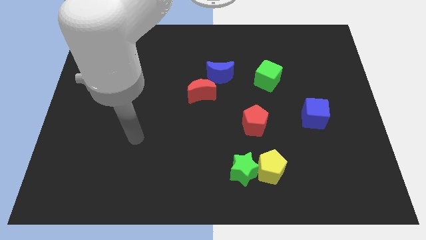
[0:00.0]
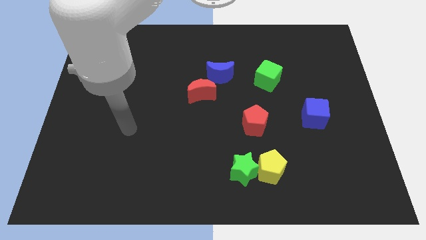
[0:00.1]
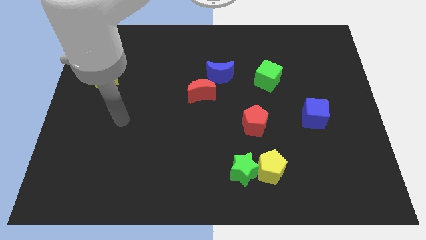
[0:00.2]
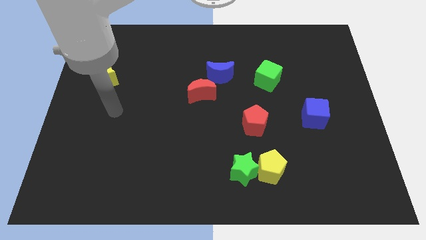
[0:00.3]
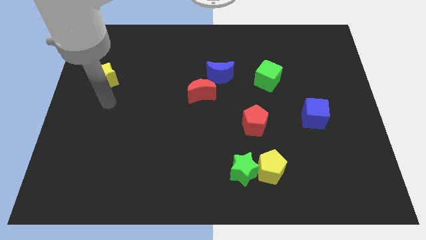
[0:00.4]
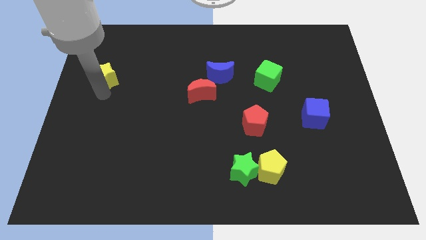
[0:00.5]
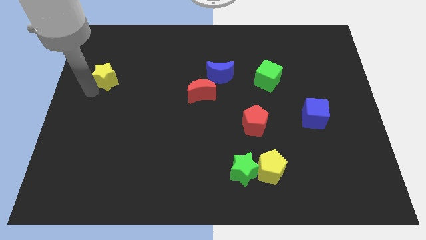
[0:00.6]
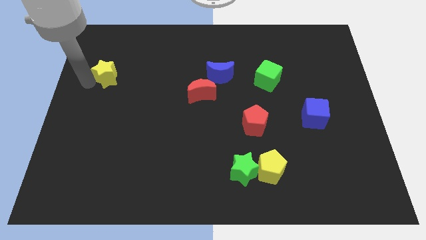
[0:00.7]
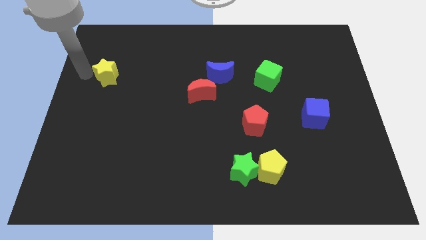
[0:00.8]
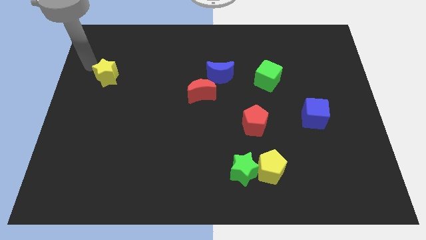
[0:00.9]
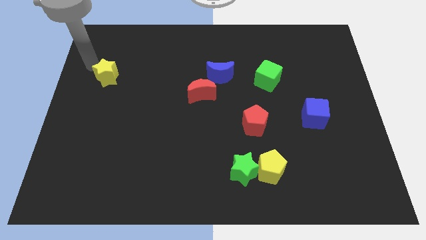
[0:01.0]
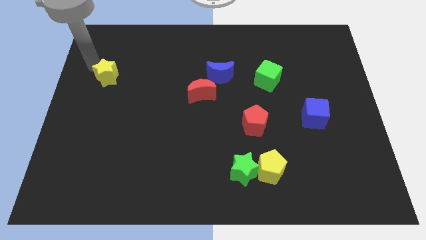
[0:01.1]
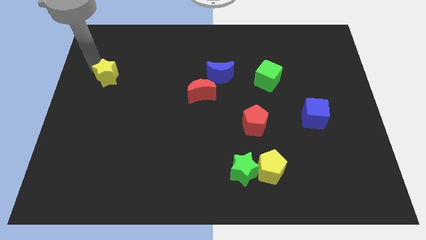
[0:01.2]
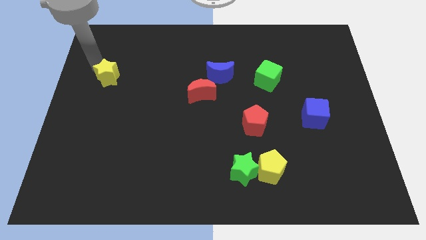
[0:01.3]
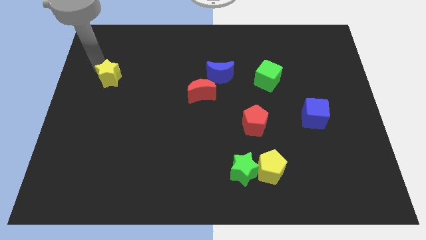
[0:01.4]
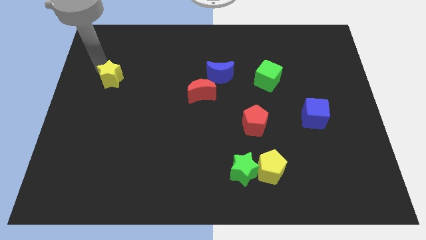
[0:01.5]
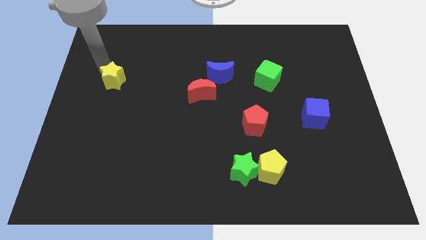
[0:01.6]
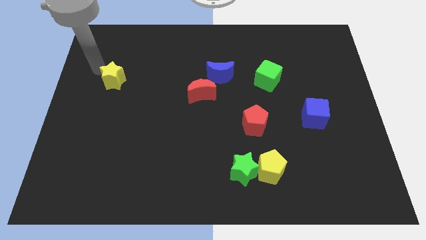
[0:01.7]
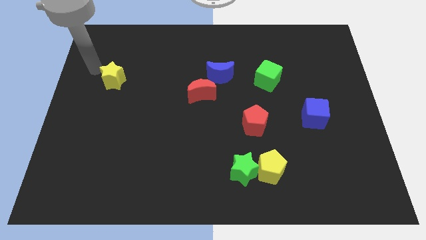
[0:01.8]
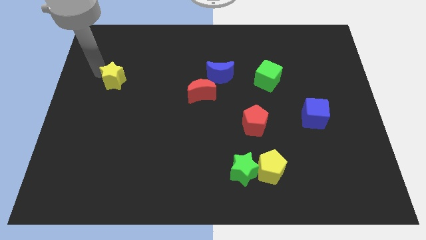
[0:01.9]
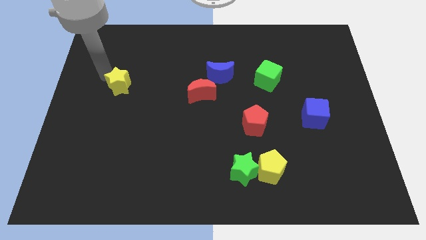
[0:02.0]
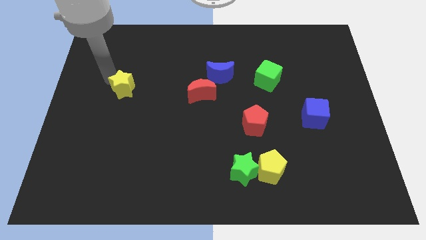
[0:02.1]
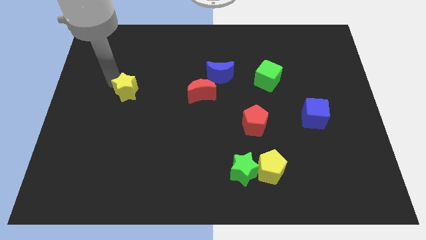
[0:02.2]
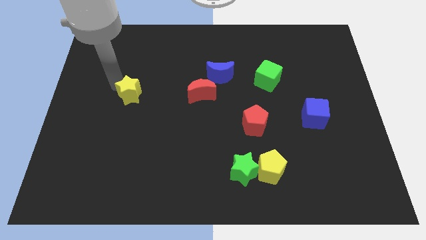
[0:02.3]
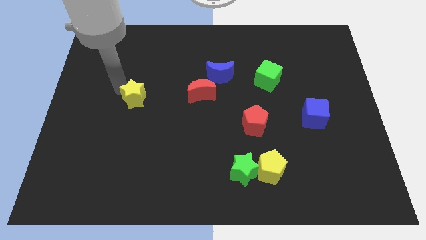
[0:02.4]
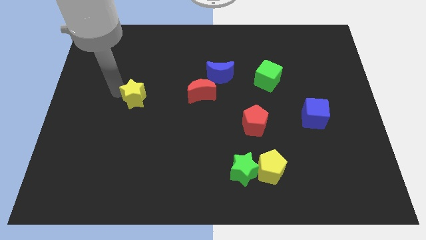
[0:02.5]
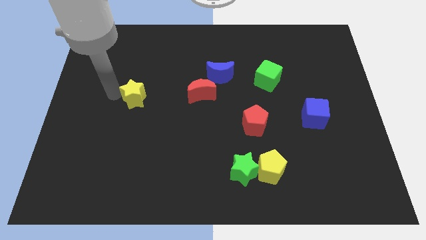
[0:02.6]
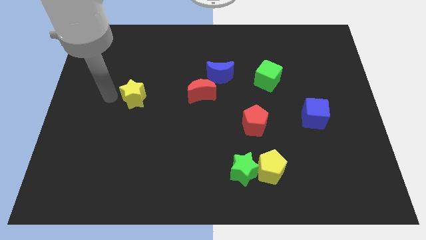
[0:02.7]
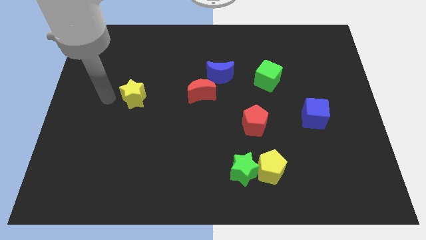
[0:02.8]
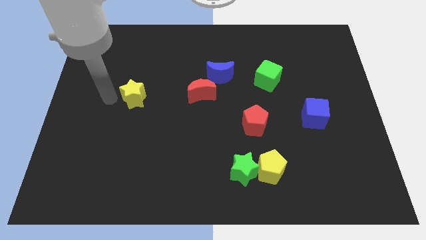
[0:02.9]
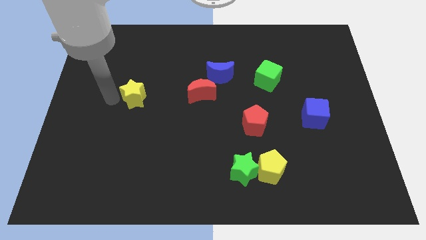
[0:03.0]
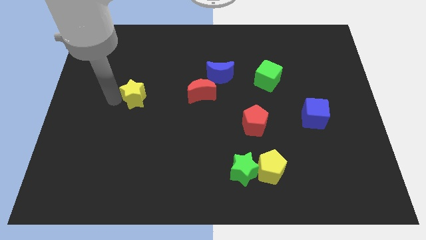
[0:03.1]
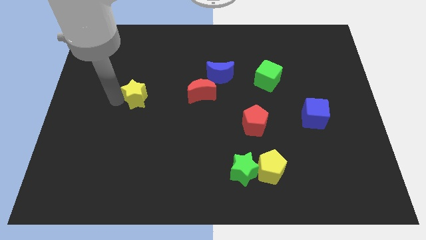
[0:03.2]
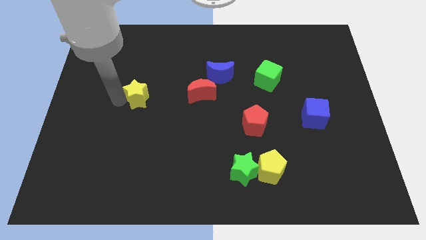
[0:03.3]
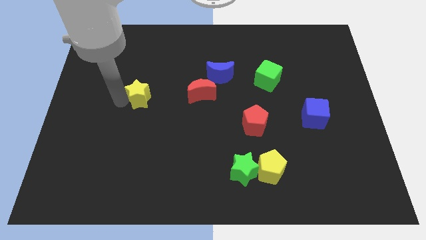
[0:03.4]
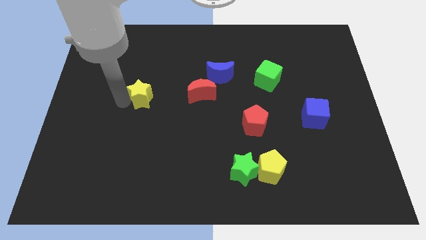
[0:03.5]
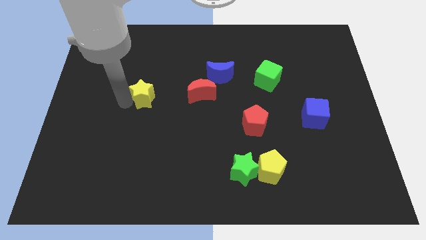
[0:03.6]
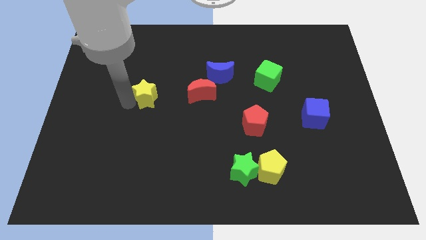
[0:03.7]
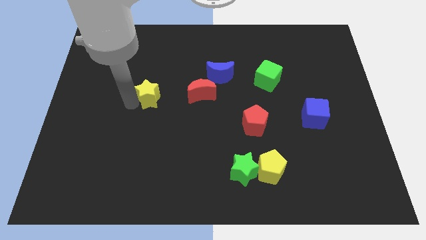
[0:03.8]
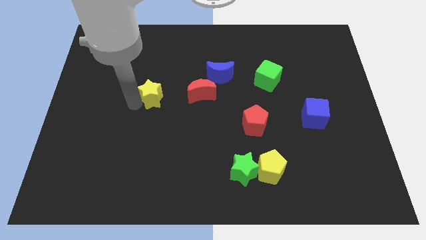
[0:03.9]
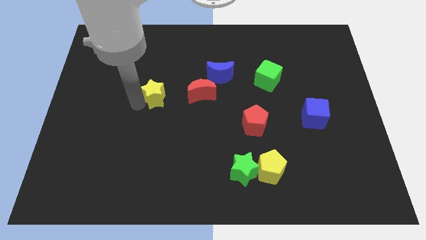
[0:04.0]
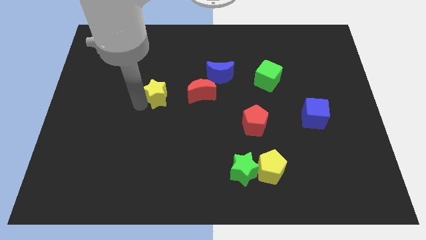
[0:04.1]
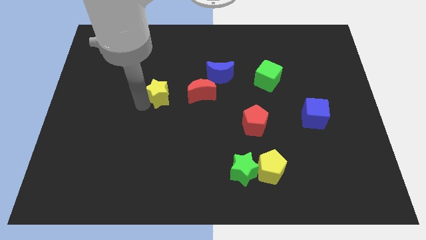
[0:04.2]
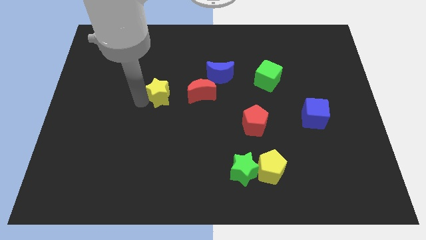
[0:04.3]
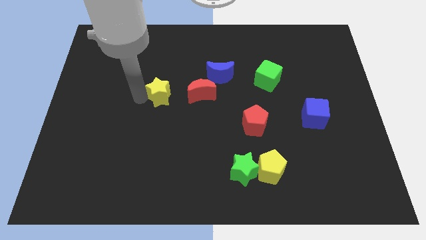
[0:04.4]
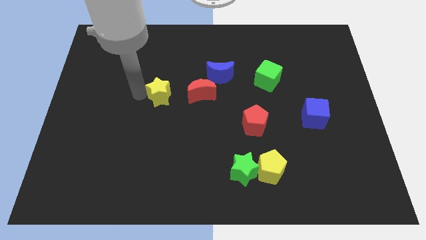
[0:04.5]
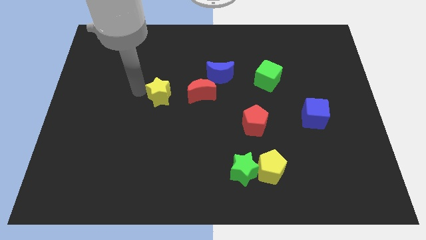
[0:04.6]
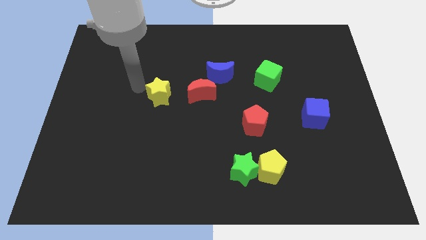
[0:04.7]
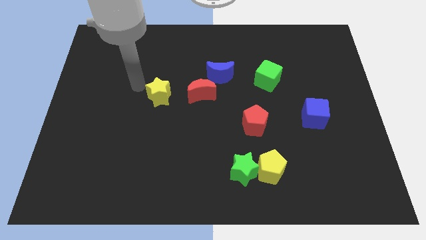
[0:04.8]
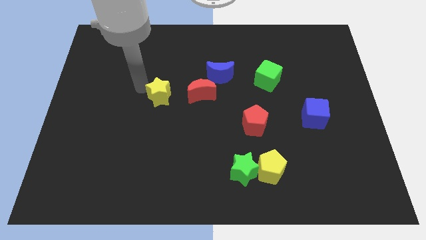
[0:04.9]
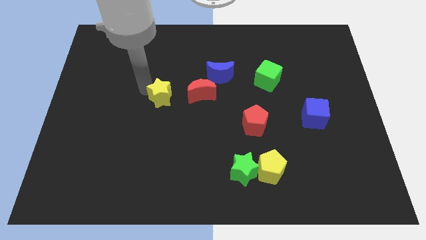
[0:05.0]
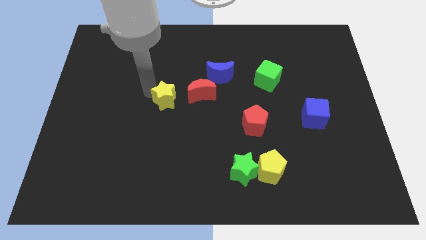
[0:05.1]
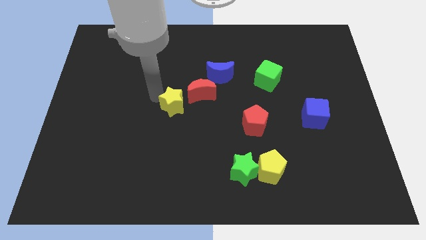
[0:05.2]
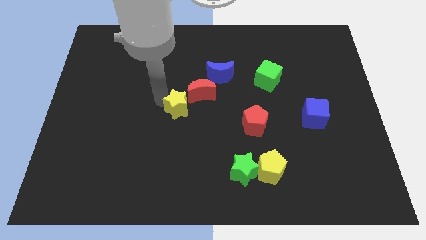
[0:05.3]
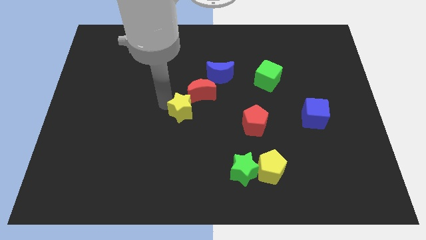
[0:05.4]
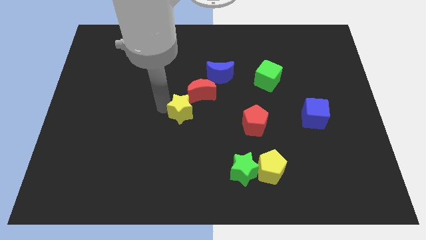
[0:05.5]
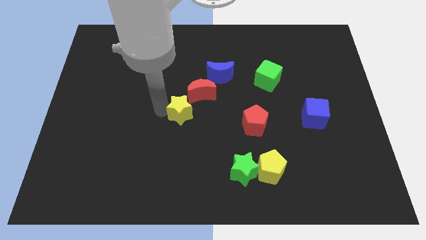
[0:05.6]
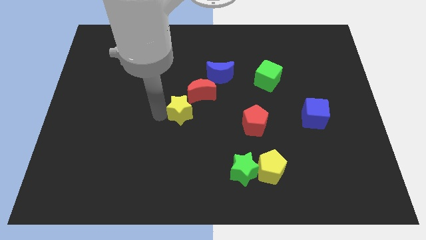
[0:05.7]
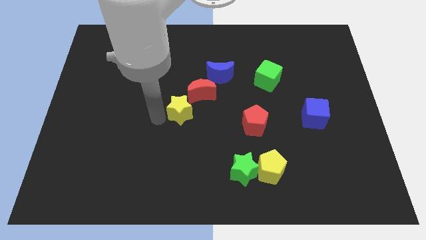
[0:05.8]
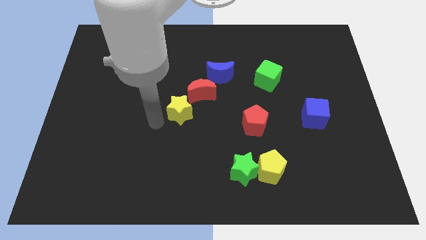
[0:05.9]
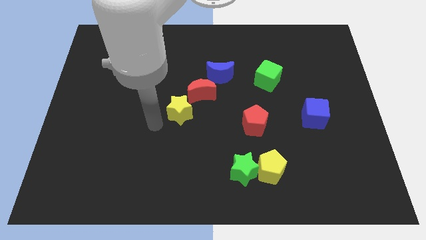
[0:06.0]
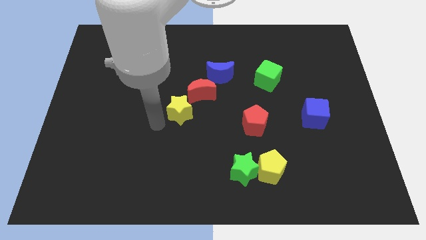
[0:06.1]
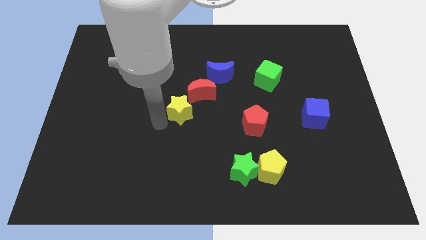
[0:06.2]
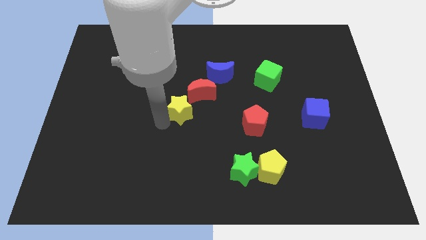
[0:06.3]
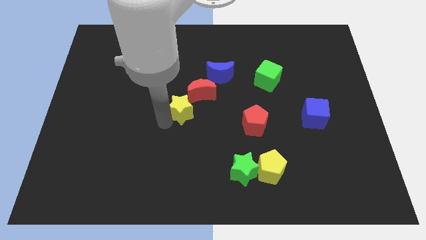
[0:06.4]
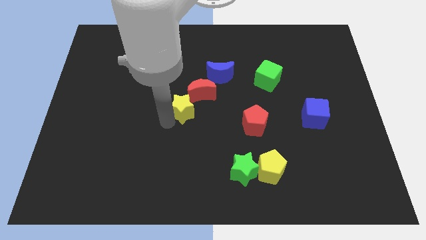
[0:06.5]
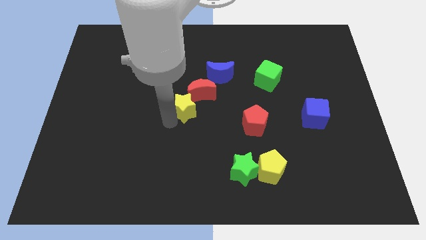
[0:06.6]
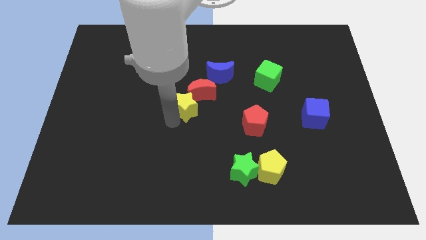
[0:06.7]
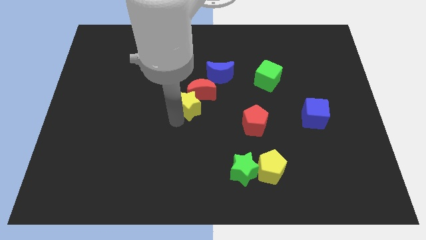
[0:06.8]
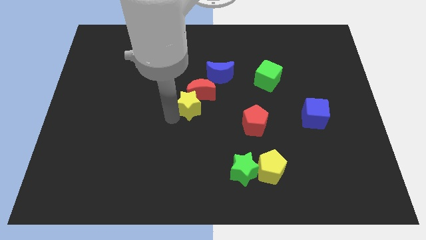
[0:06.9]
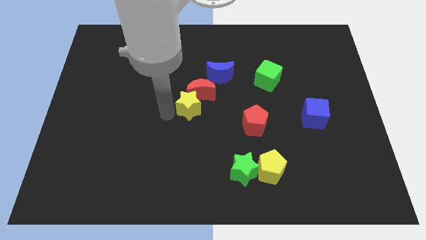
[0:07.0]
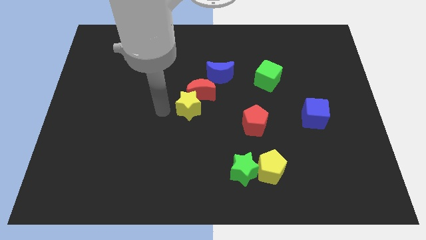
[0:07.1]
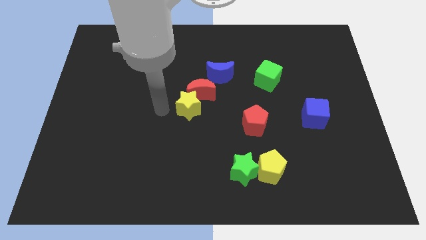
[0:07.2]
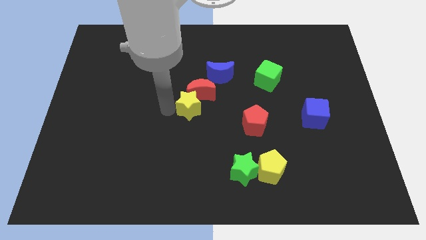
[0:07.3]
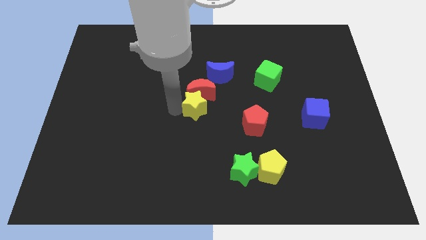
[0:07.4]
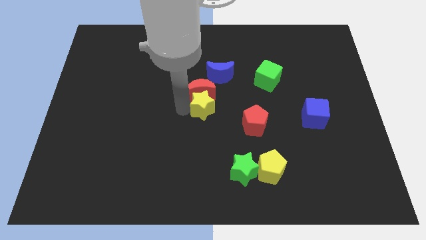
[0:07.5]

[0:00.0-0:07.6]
move the yellow star to the bottom of the blue moon

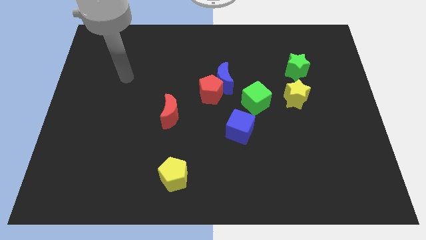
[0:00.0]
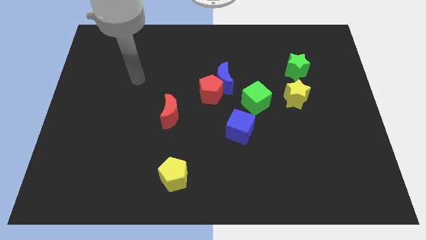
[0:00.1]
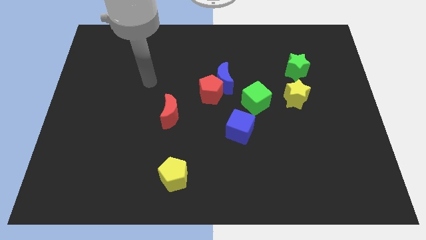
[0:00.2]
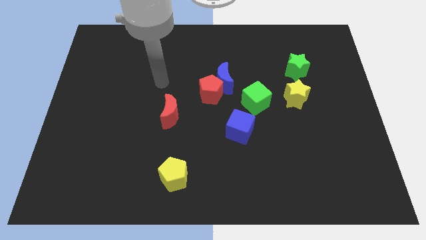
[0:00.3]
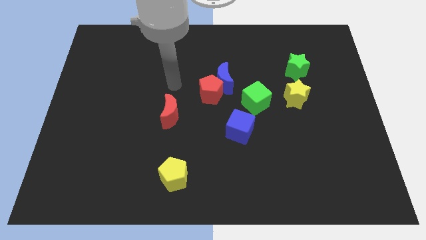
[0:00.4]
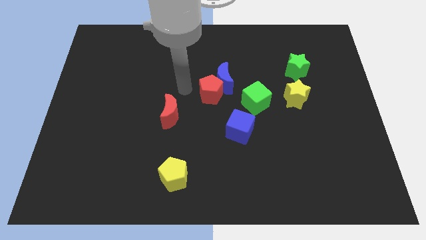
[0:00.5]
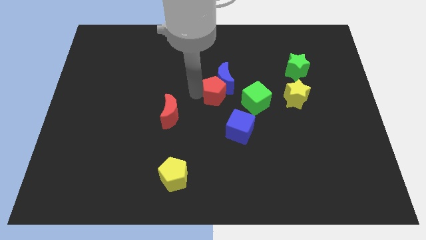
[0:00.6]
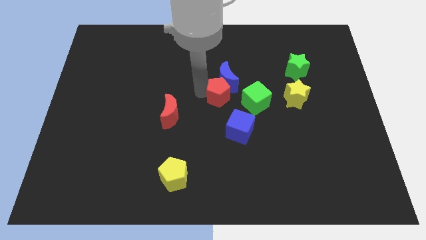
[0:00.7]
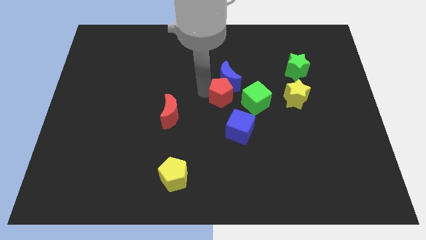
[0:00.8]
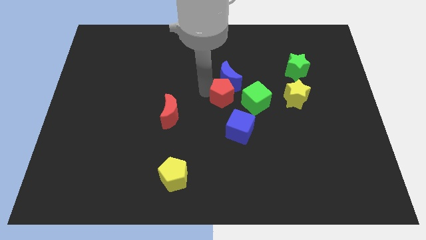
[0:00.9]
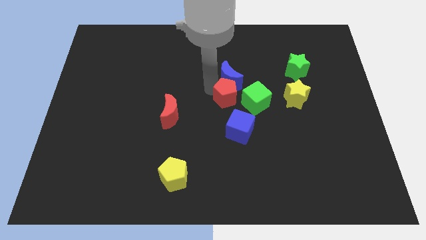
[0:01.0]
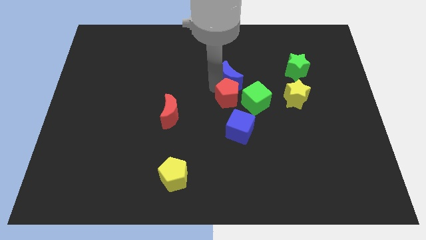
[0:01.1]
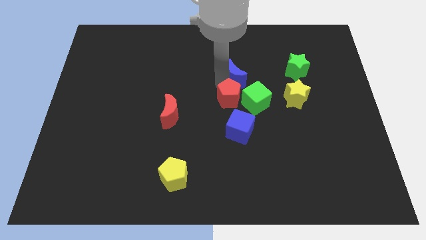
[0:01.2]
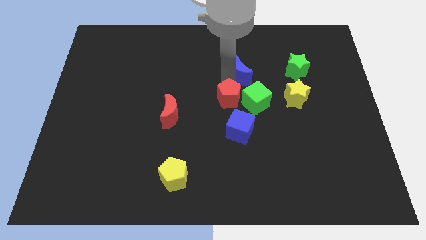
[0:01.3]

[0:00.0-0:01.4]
push the blue moon above the green cube
